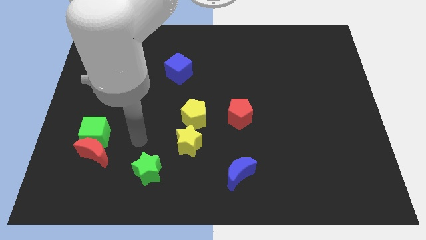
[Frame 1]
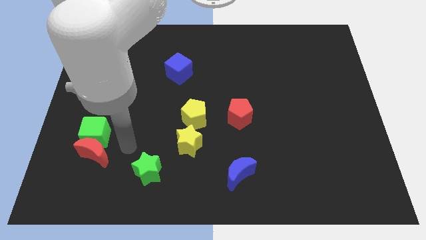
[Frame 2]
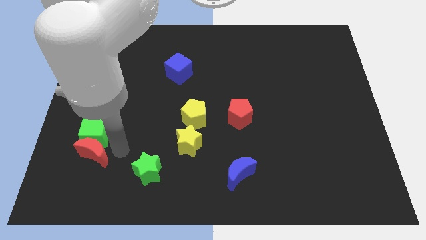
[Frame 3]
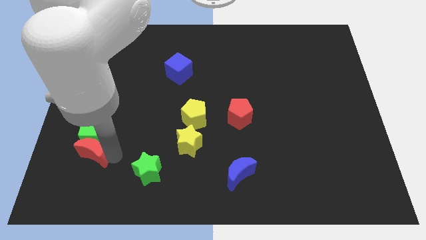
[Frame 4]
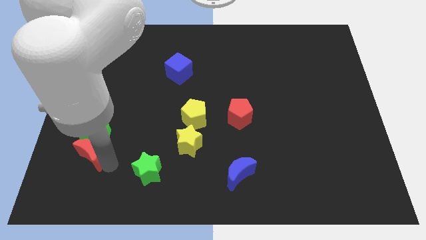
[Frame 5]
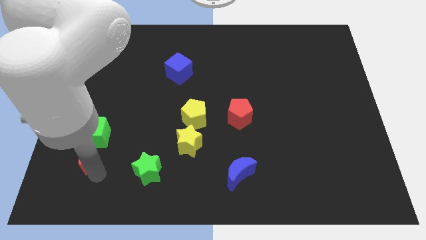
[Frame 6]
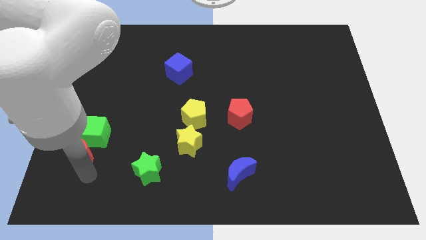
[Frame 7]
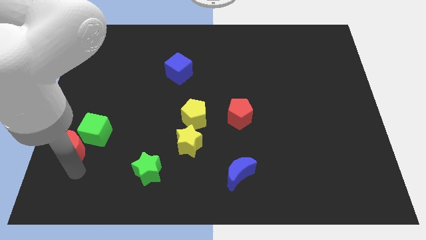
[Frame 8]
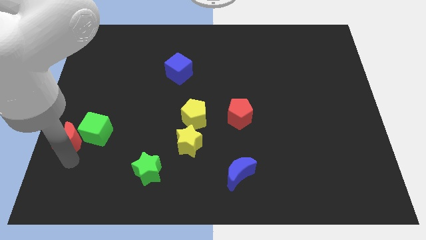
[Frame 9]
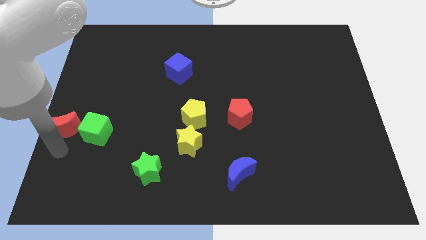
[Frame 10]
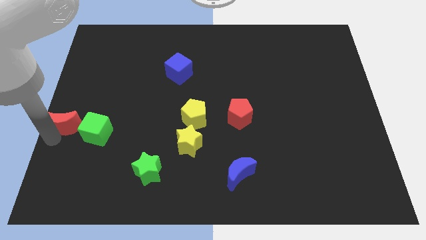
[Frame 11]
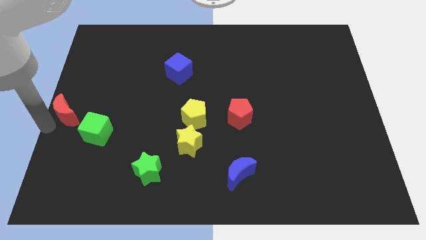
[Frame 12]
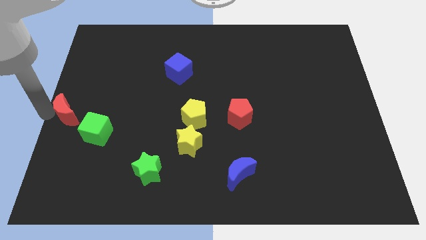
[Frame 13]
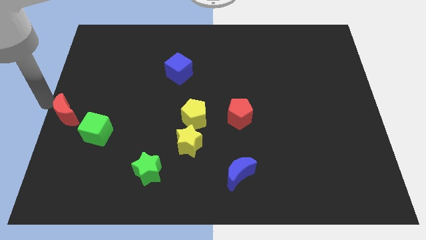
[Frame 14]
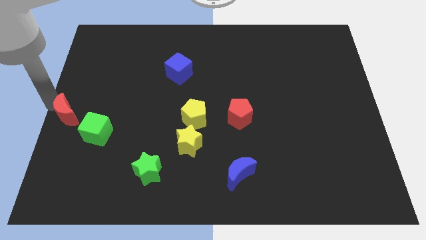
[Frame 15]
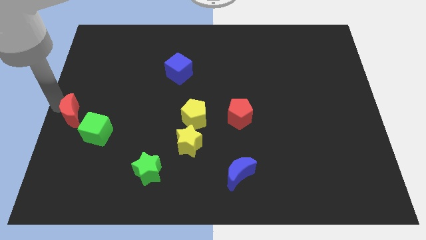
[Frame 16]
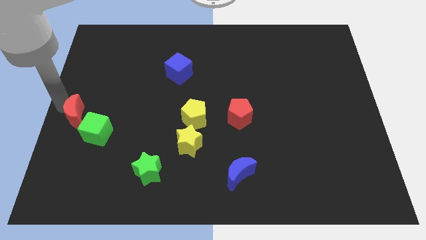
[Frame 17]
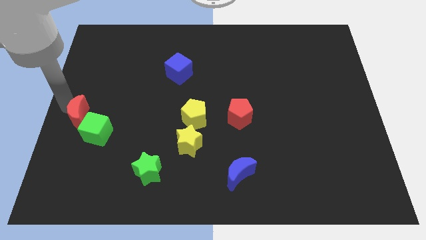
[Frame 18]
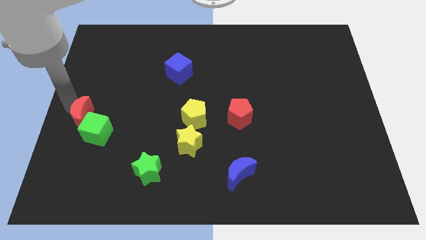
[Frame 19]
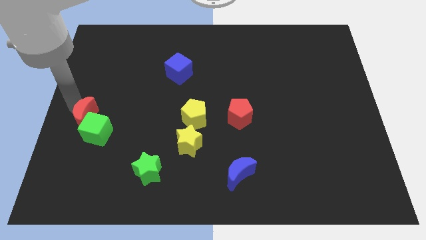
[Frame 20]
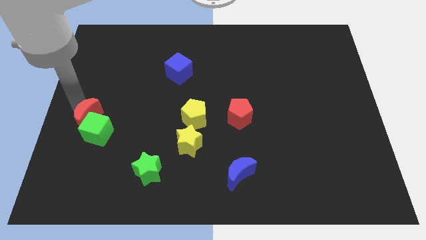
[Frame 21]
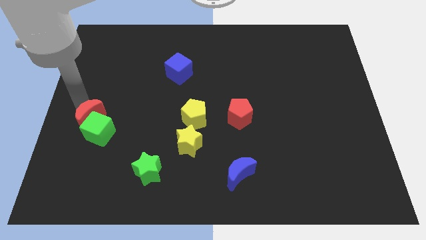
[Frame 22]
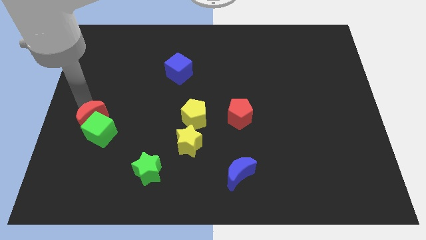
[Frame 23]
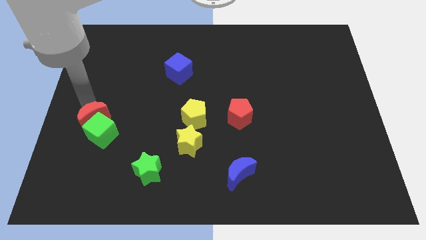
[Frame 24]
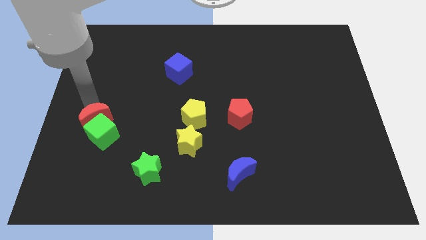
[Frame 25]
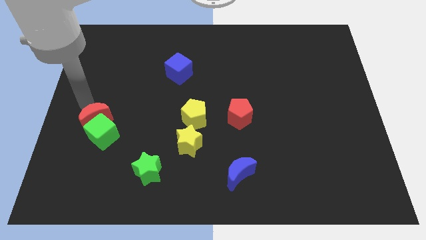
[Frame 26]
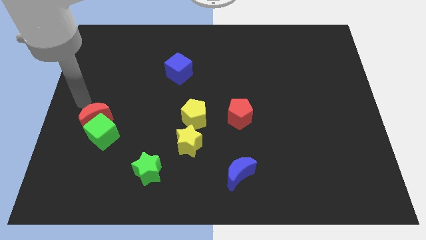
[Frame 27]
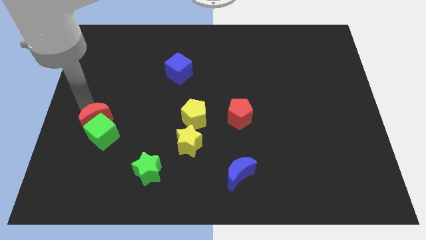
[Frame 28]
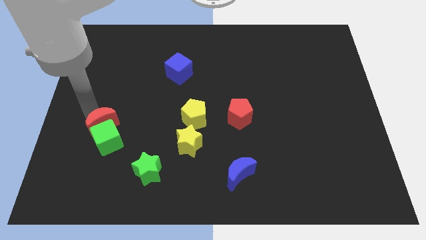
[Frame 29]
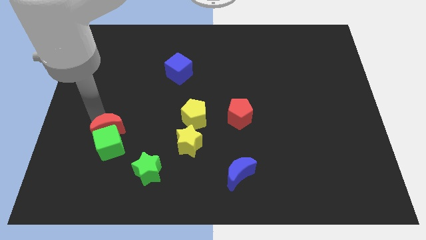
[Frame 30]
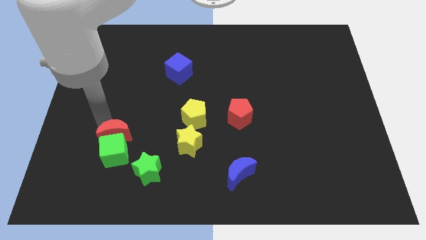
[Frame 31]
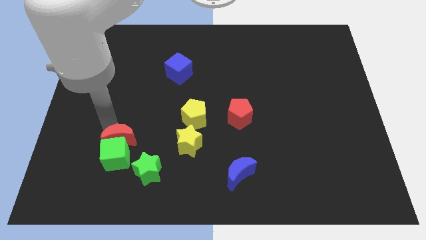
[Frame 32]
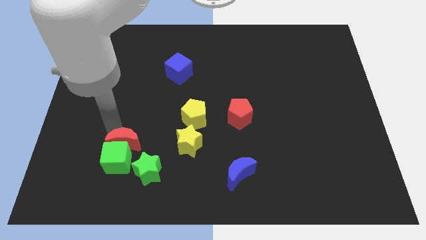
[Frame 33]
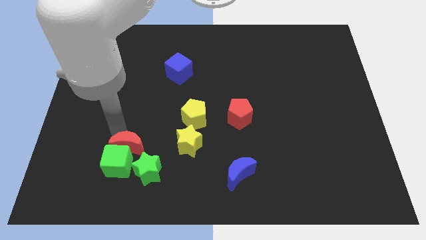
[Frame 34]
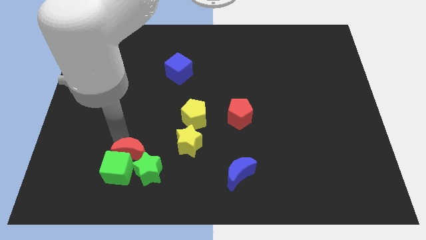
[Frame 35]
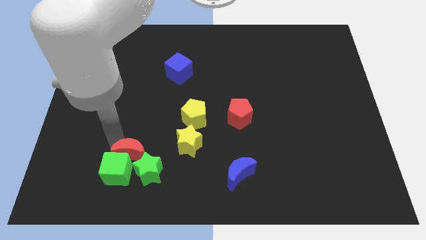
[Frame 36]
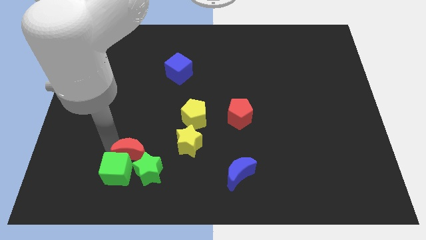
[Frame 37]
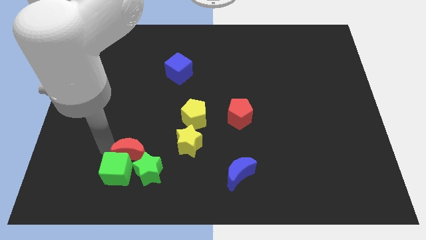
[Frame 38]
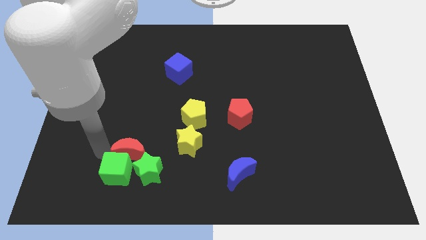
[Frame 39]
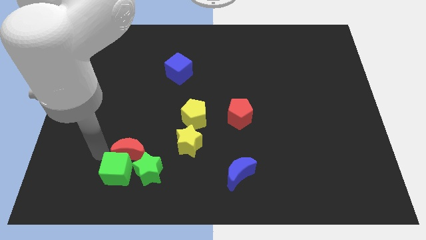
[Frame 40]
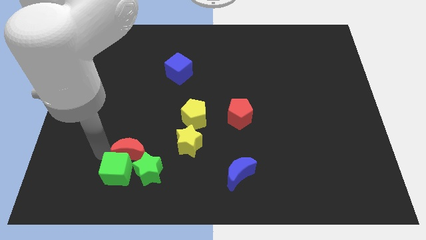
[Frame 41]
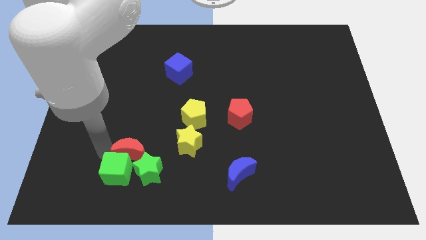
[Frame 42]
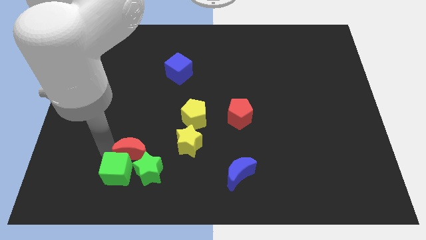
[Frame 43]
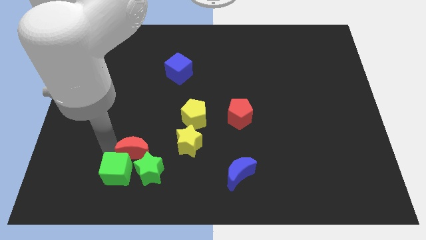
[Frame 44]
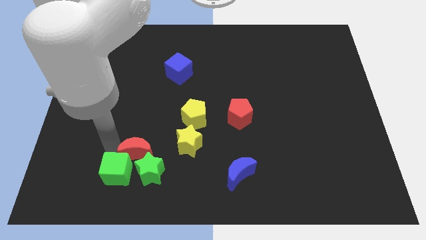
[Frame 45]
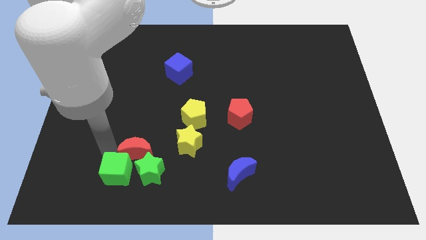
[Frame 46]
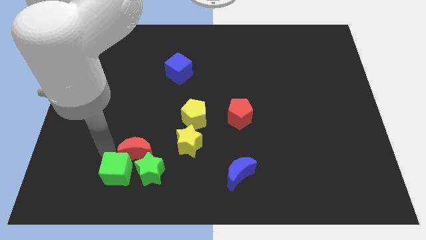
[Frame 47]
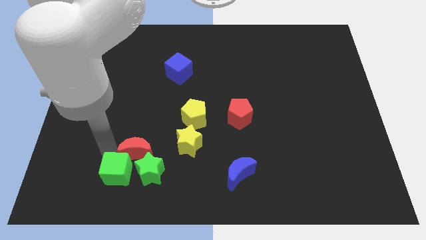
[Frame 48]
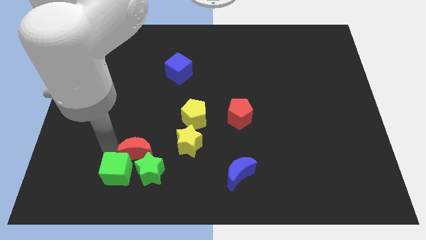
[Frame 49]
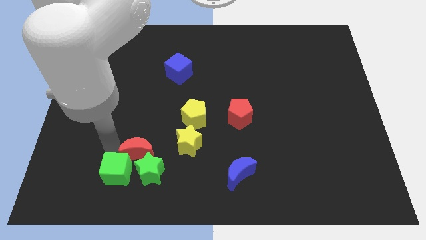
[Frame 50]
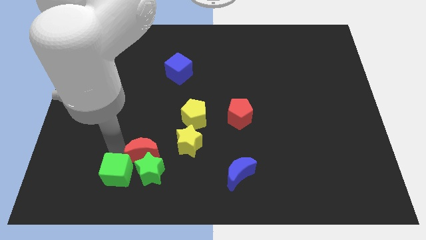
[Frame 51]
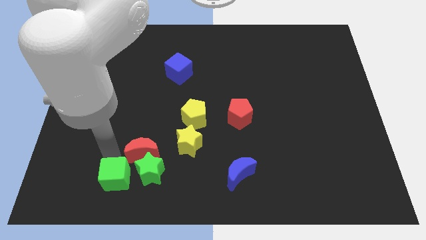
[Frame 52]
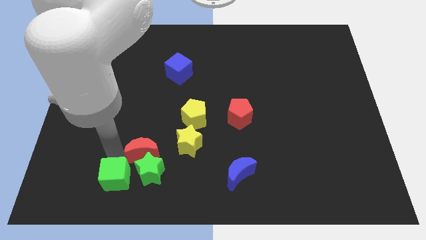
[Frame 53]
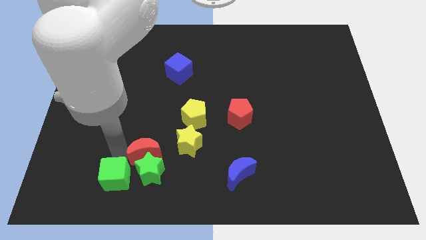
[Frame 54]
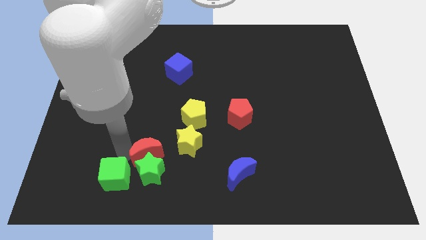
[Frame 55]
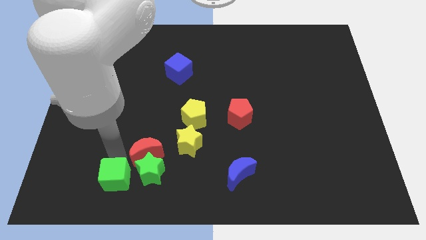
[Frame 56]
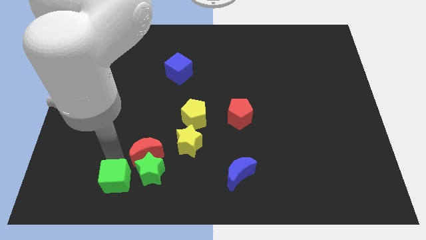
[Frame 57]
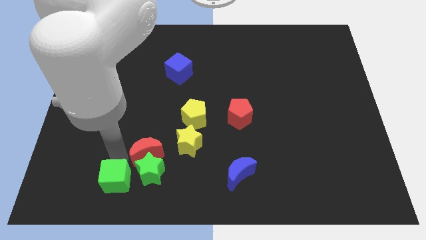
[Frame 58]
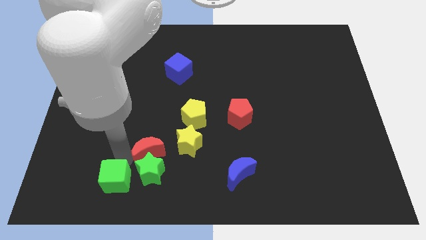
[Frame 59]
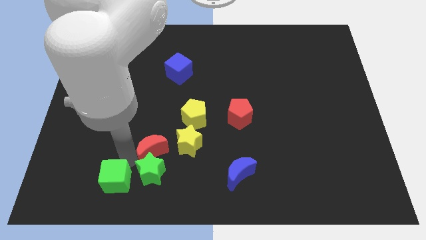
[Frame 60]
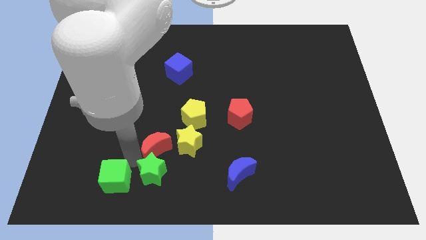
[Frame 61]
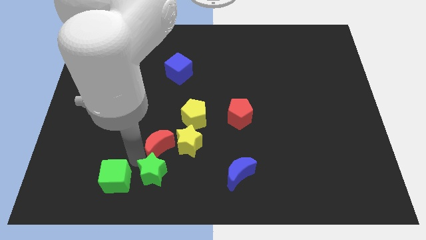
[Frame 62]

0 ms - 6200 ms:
push the red moon towards the yellow star
